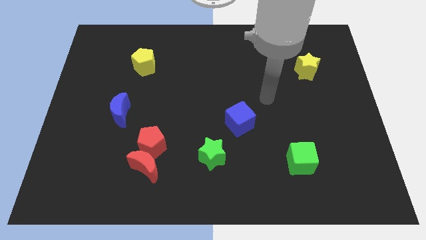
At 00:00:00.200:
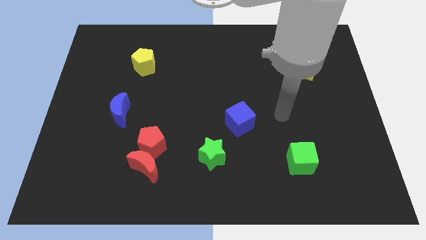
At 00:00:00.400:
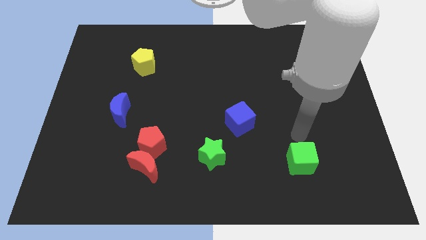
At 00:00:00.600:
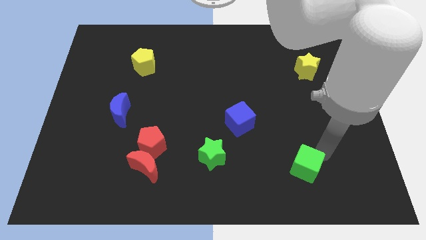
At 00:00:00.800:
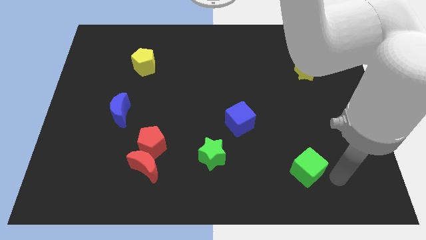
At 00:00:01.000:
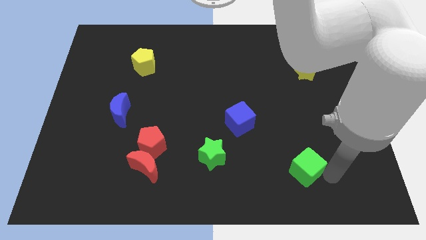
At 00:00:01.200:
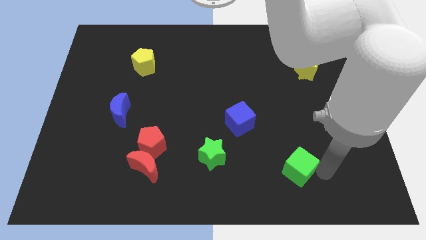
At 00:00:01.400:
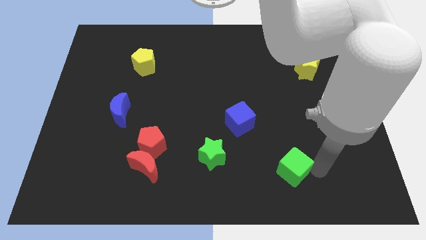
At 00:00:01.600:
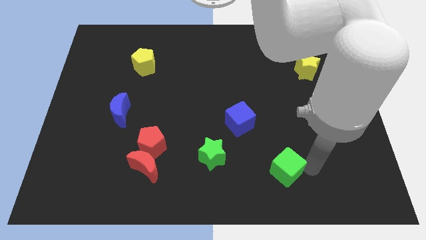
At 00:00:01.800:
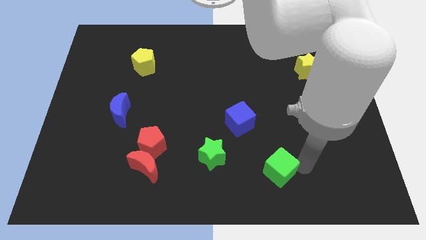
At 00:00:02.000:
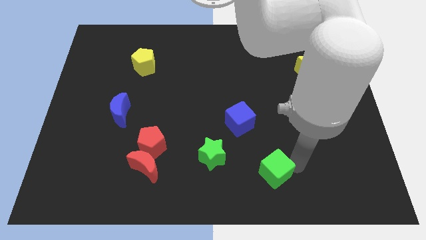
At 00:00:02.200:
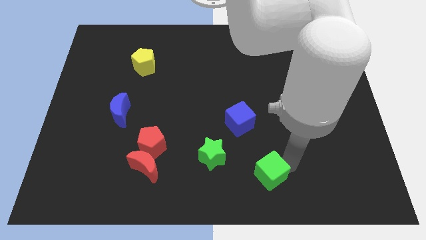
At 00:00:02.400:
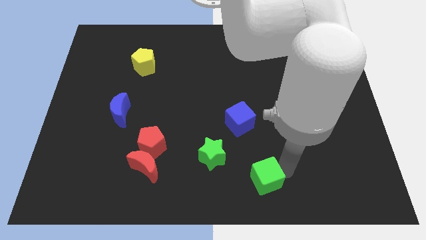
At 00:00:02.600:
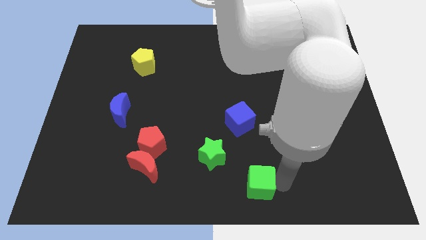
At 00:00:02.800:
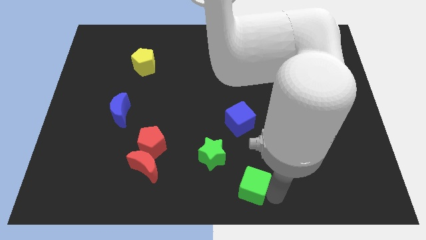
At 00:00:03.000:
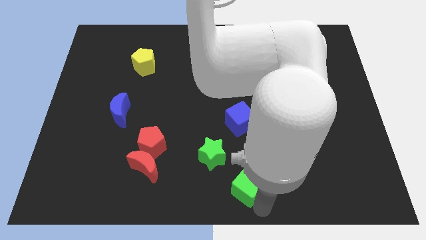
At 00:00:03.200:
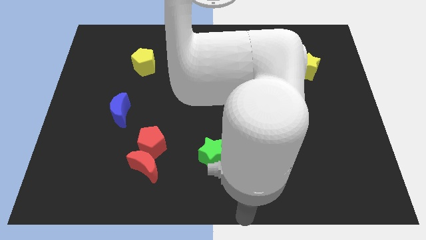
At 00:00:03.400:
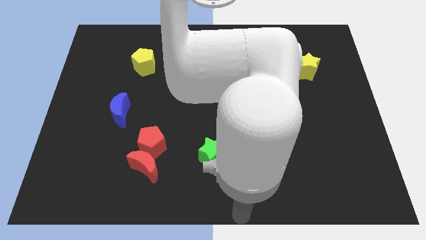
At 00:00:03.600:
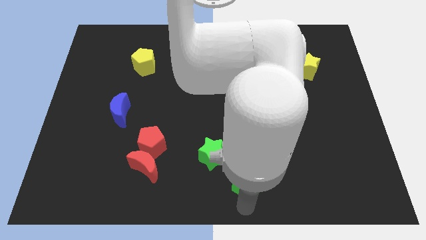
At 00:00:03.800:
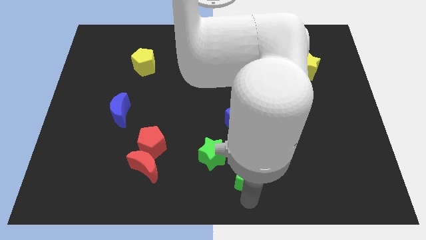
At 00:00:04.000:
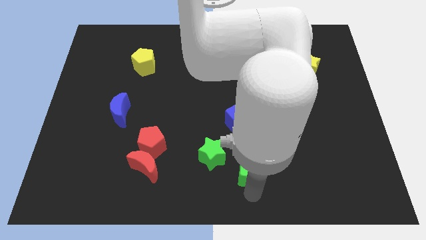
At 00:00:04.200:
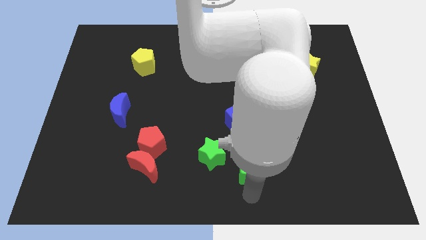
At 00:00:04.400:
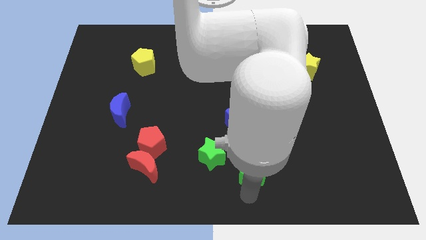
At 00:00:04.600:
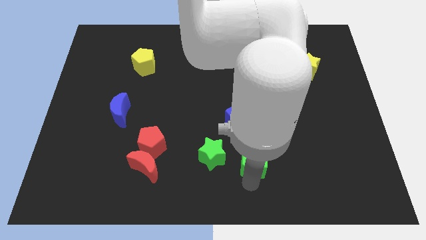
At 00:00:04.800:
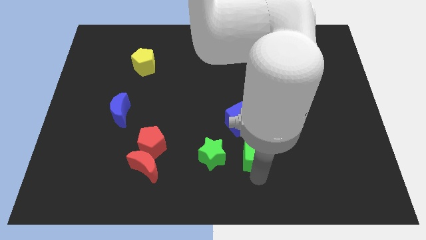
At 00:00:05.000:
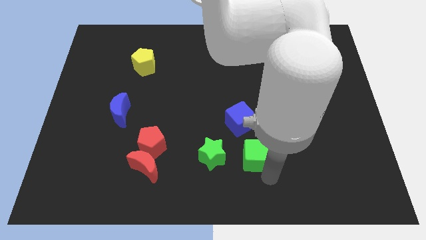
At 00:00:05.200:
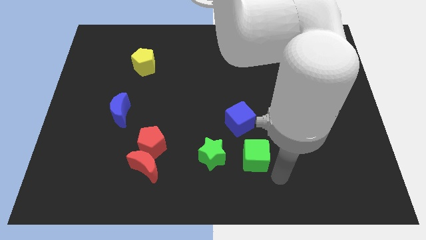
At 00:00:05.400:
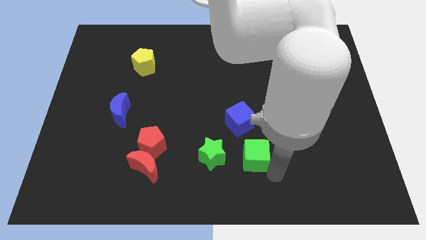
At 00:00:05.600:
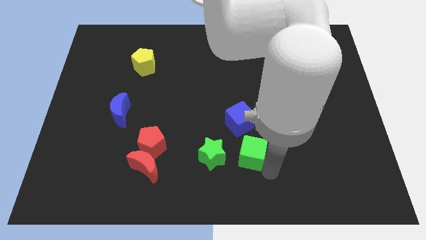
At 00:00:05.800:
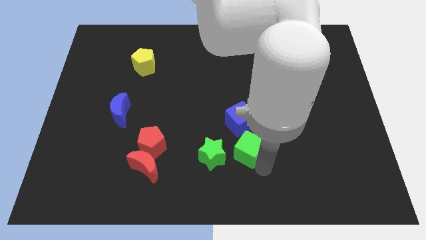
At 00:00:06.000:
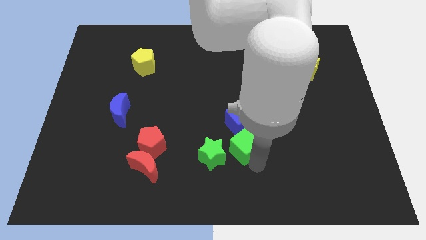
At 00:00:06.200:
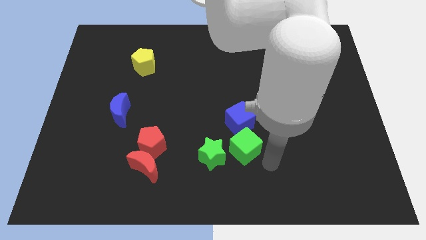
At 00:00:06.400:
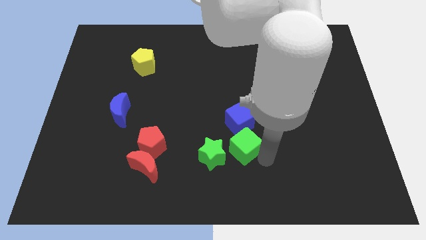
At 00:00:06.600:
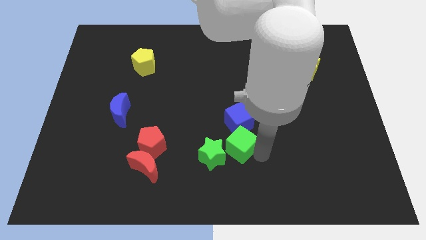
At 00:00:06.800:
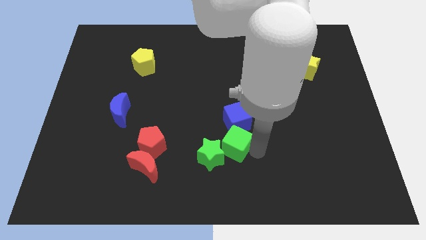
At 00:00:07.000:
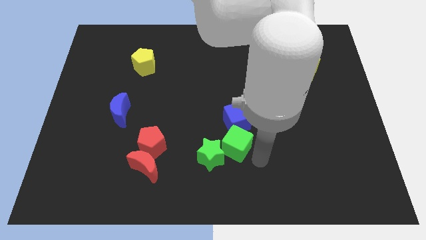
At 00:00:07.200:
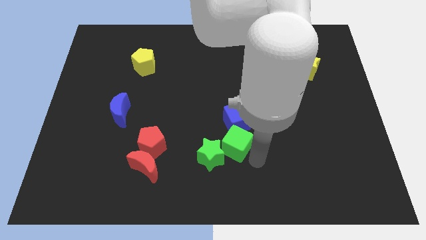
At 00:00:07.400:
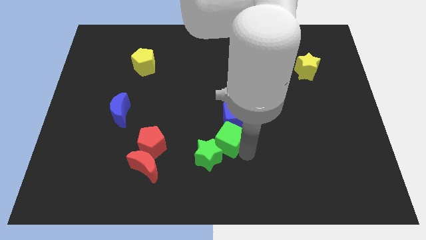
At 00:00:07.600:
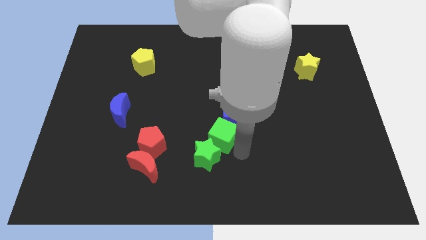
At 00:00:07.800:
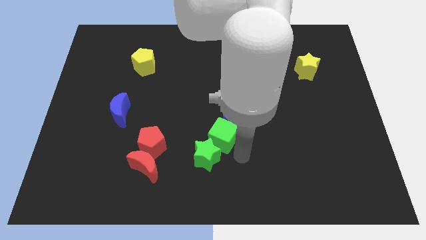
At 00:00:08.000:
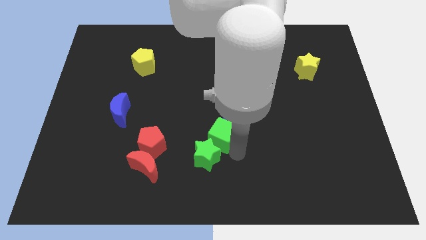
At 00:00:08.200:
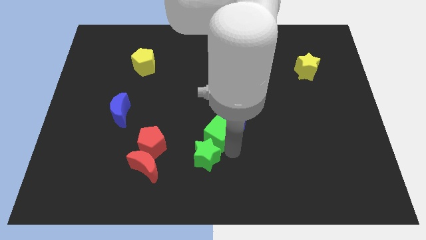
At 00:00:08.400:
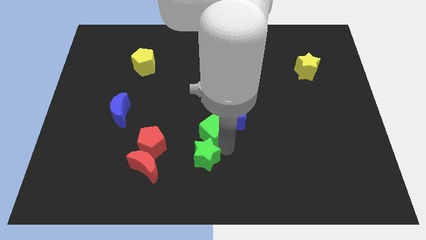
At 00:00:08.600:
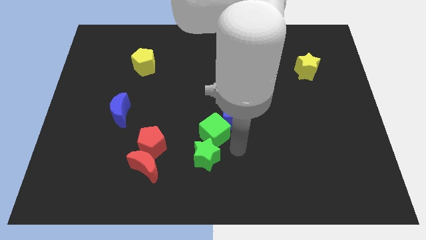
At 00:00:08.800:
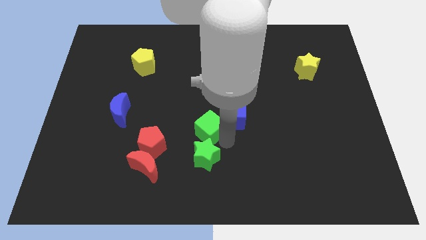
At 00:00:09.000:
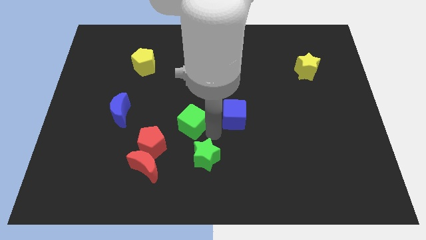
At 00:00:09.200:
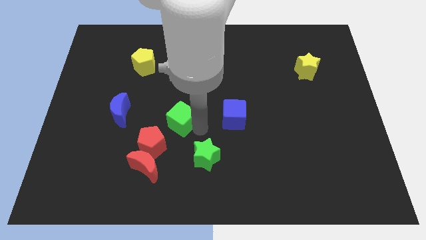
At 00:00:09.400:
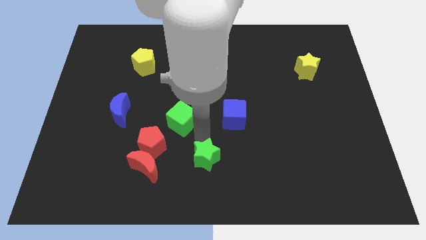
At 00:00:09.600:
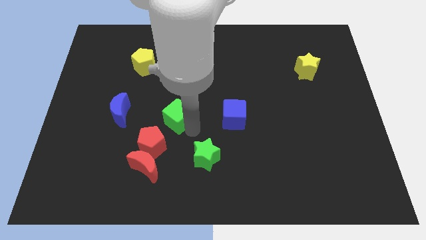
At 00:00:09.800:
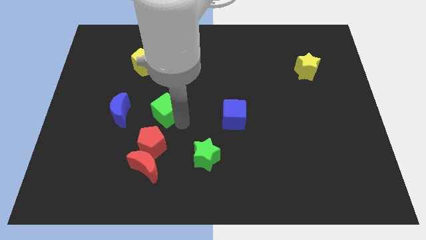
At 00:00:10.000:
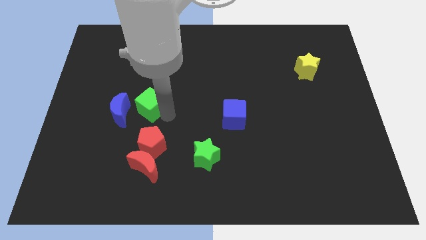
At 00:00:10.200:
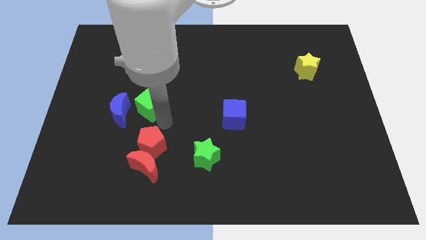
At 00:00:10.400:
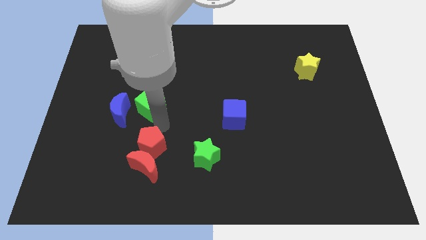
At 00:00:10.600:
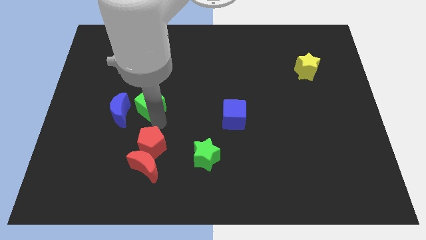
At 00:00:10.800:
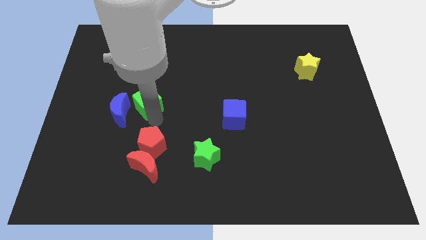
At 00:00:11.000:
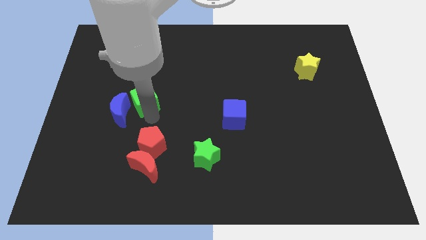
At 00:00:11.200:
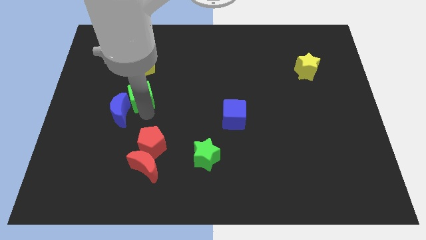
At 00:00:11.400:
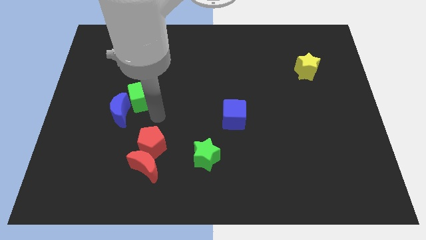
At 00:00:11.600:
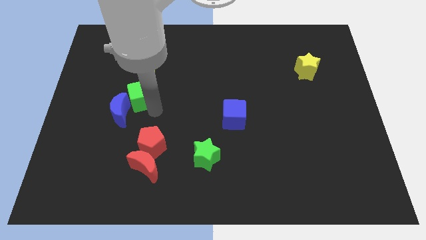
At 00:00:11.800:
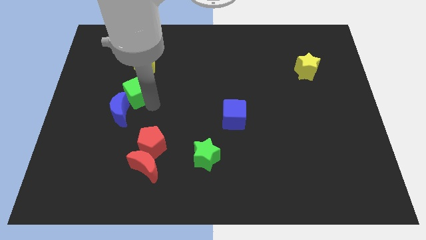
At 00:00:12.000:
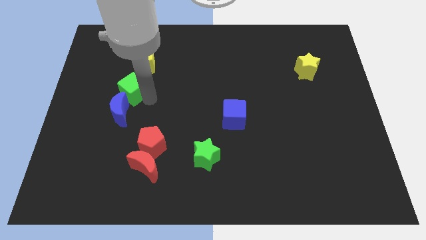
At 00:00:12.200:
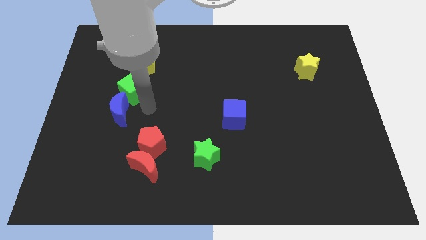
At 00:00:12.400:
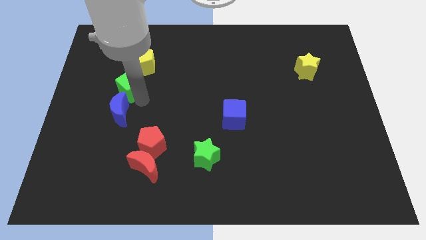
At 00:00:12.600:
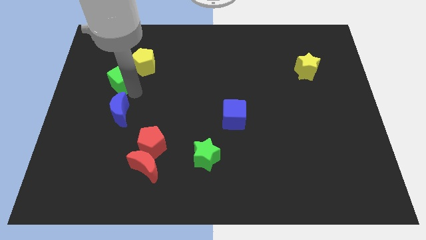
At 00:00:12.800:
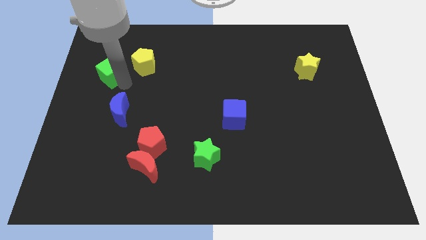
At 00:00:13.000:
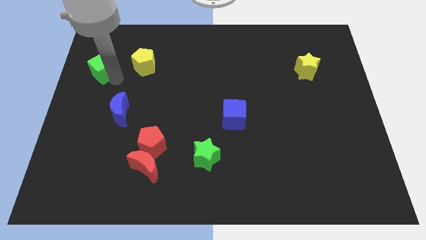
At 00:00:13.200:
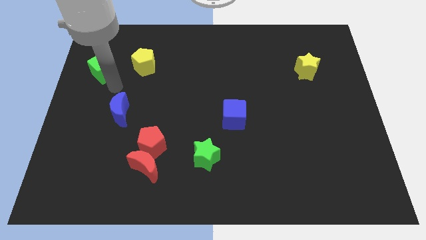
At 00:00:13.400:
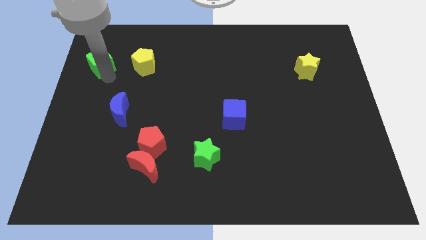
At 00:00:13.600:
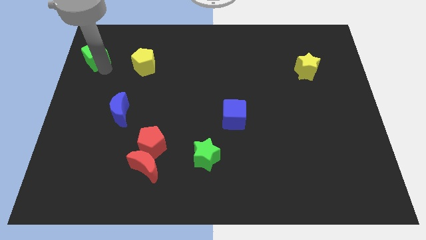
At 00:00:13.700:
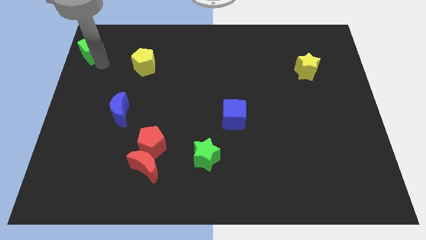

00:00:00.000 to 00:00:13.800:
push the green cube to the upper left corner
